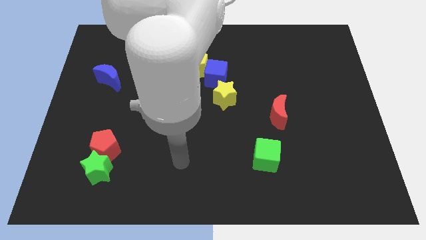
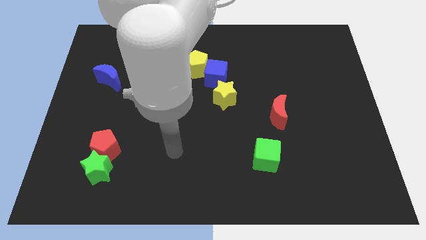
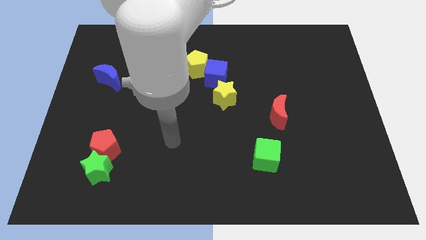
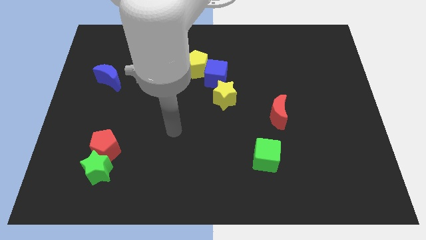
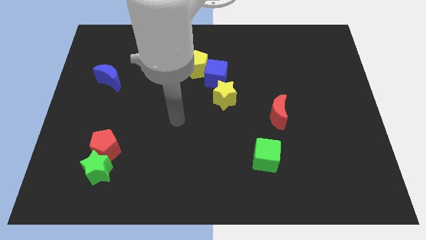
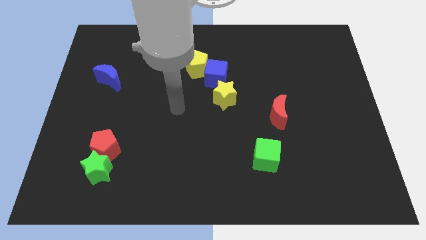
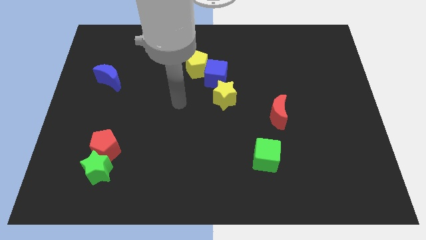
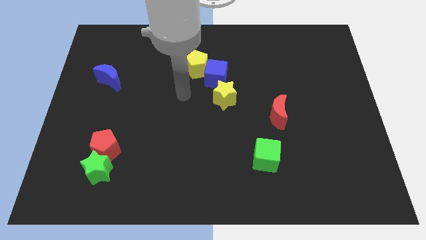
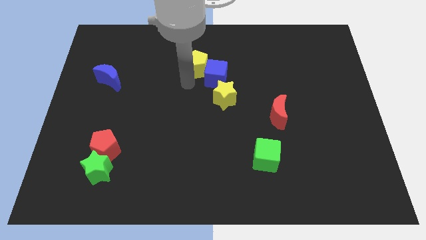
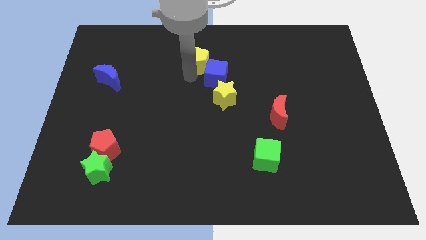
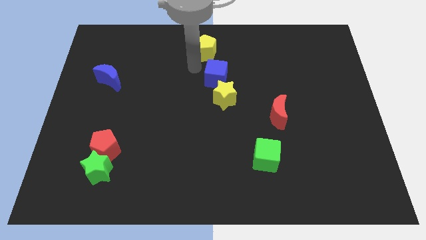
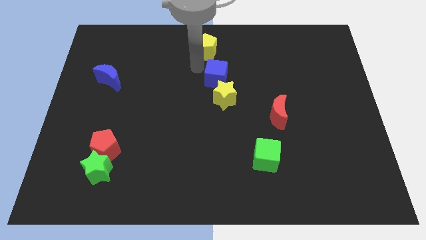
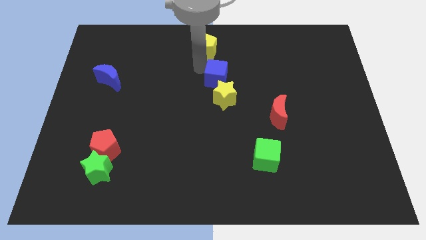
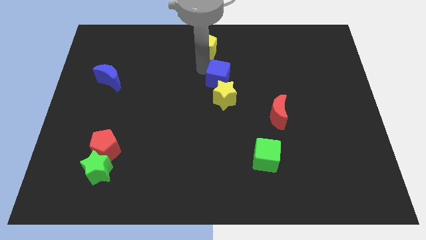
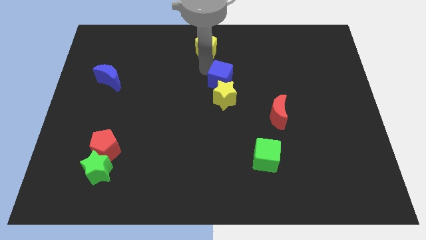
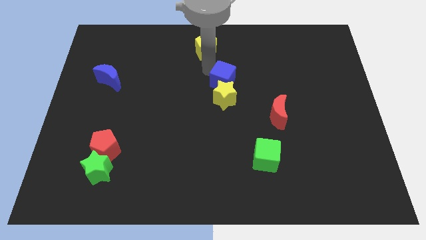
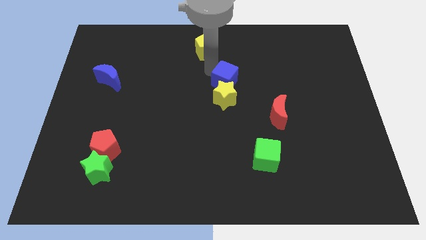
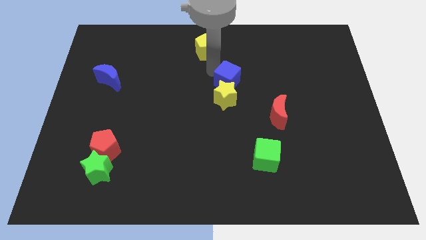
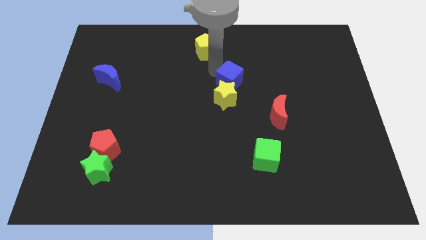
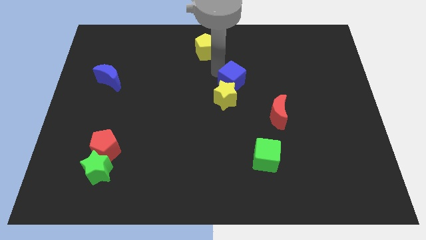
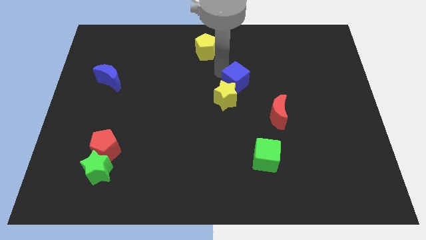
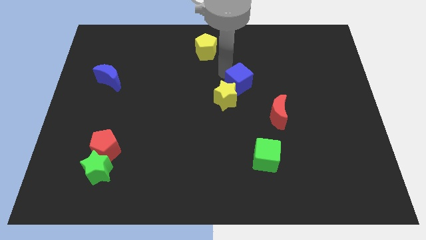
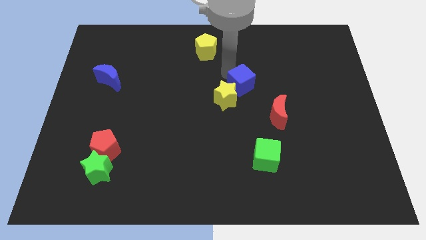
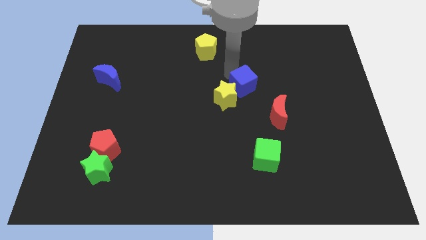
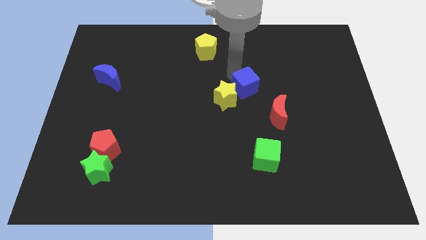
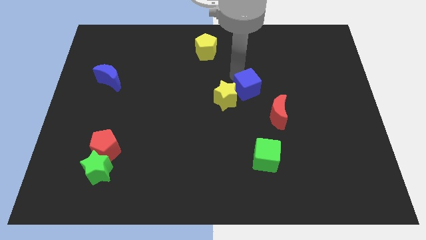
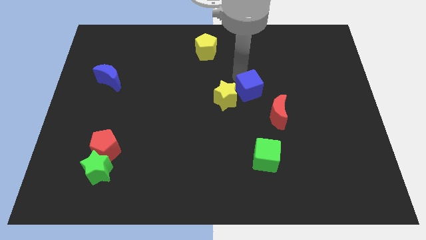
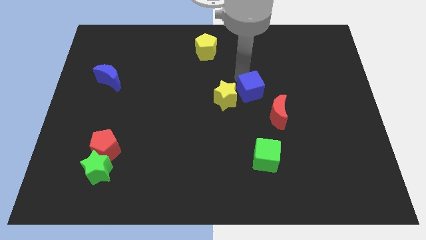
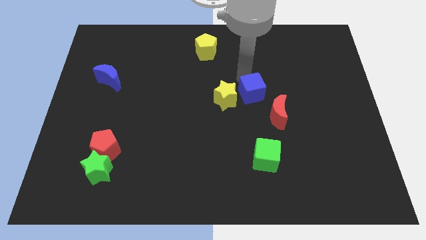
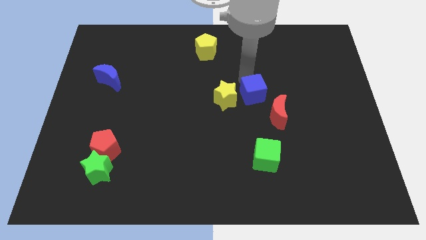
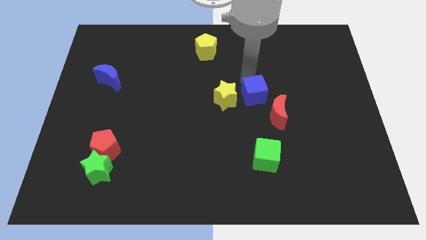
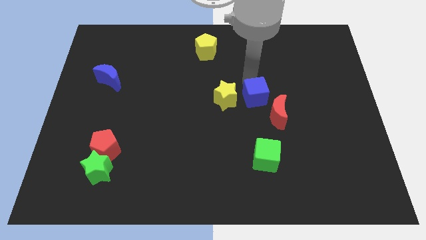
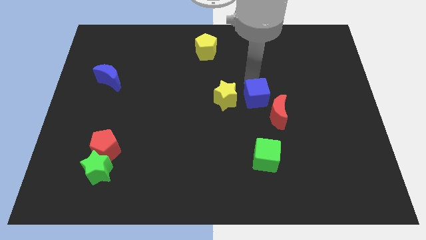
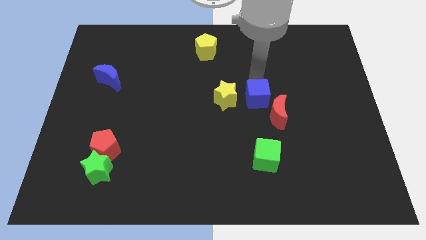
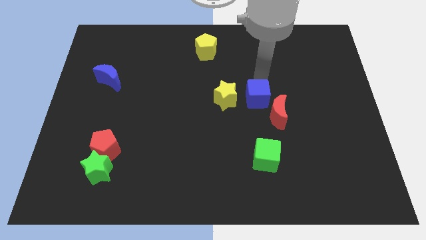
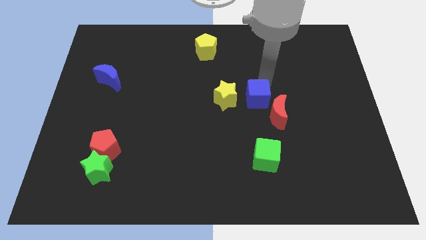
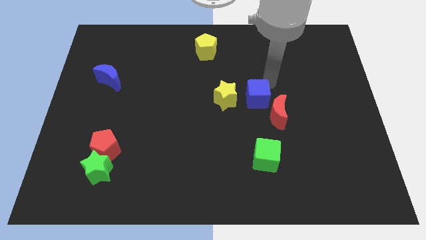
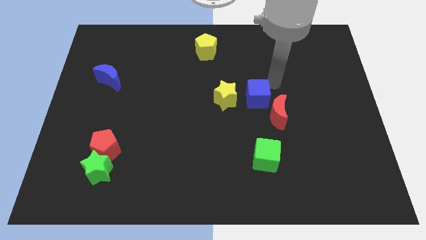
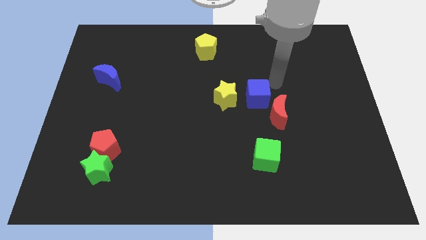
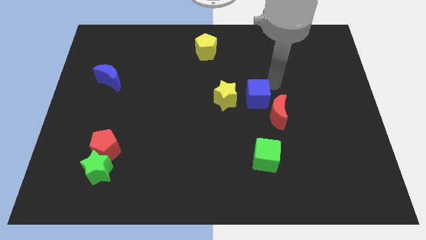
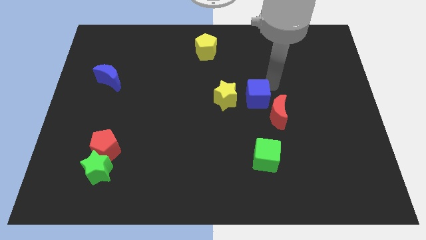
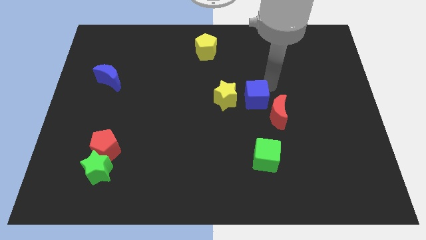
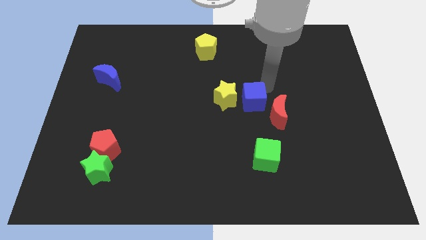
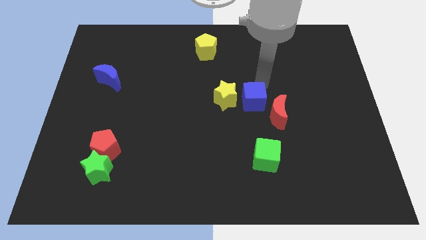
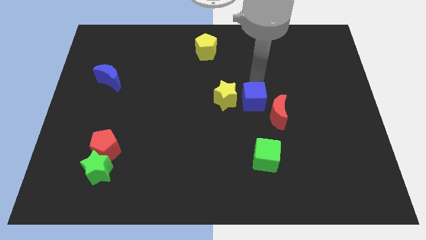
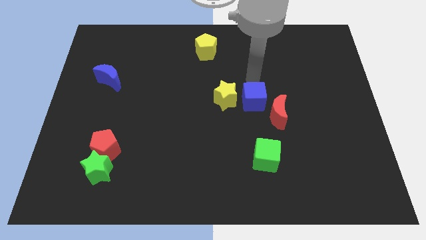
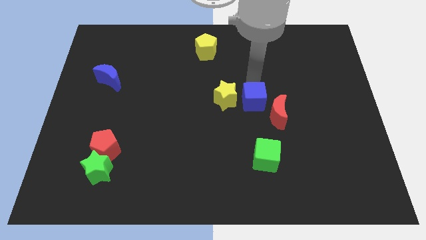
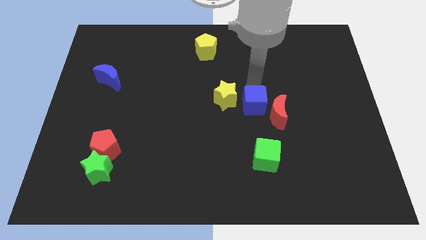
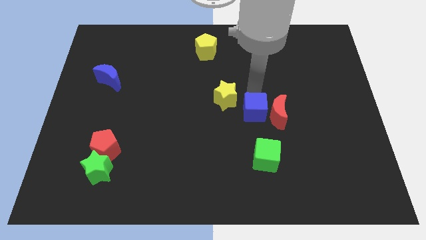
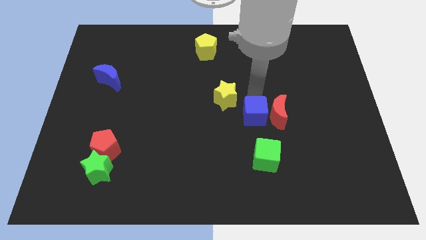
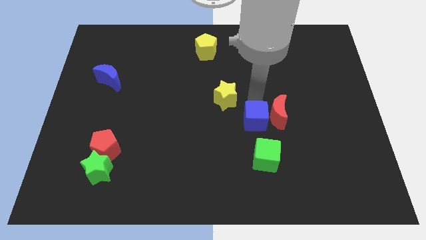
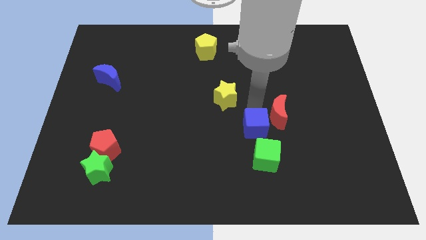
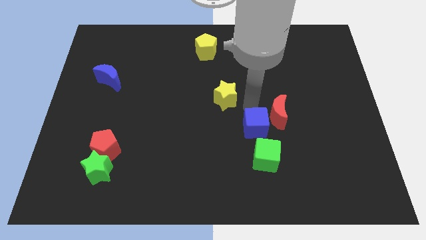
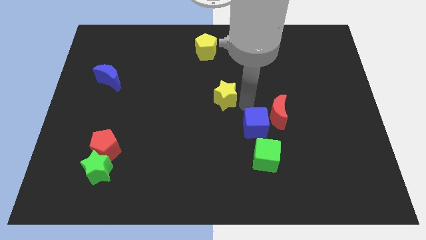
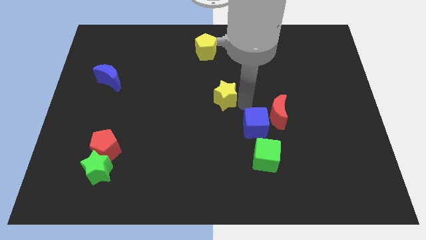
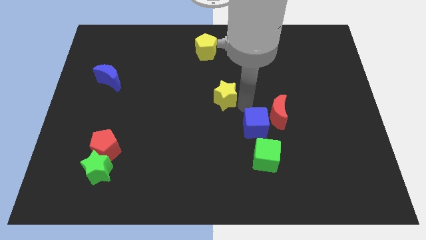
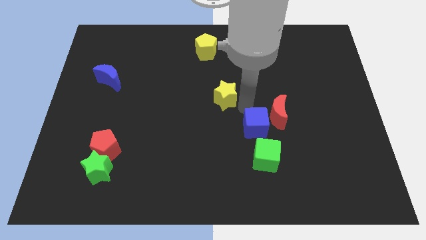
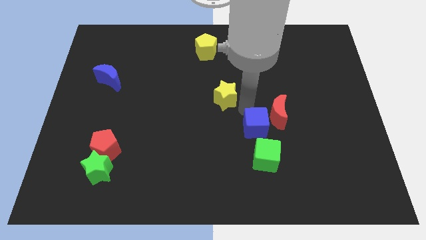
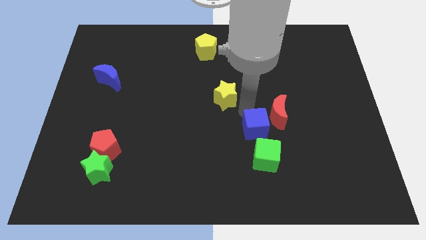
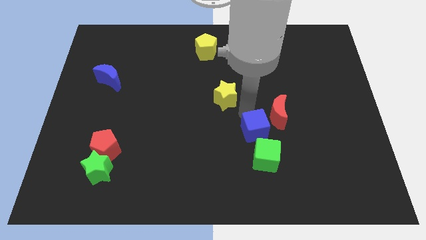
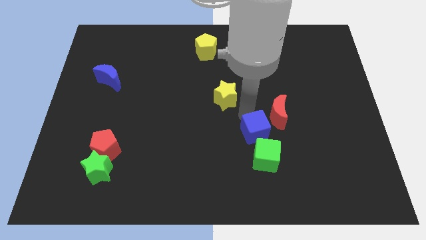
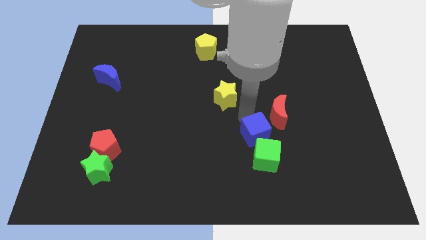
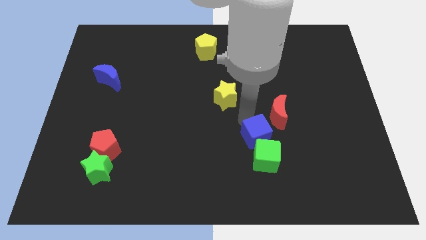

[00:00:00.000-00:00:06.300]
slide the blue cube close to the green cube

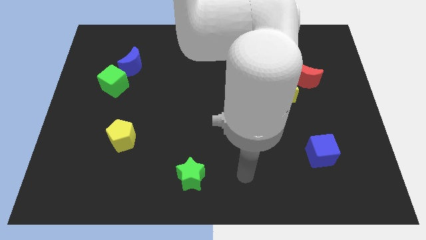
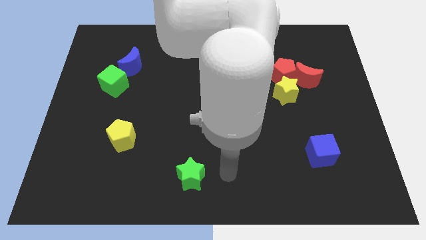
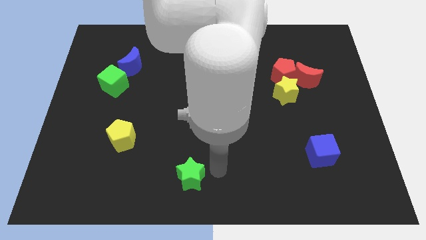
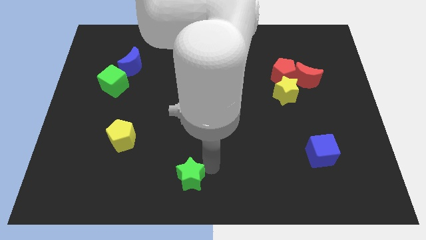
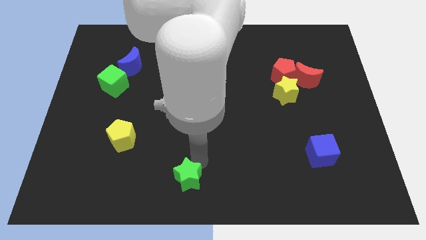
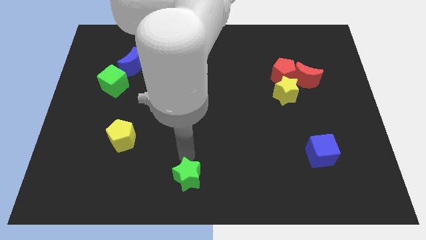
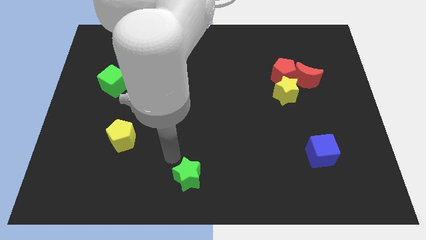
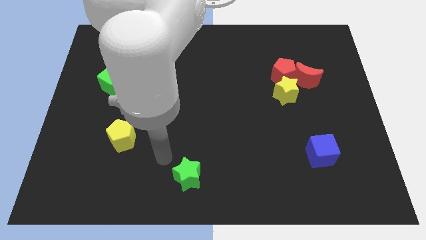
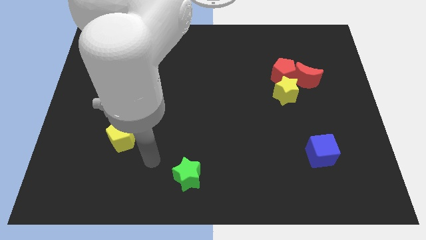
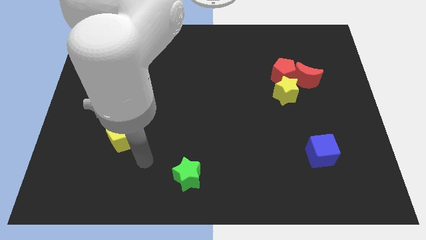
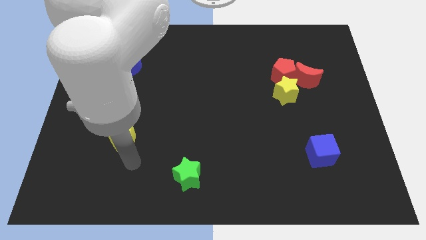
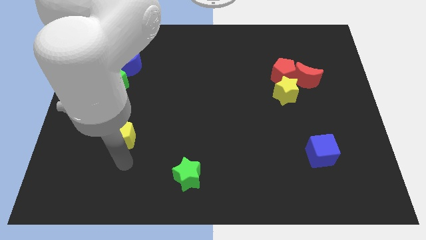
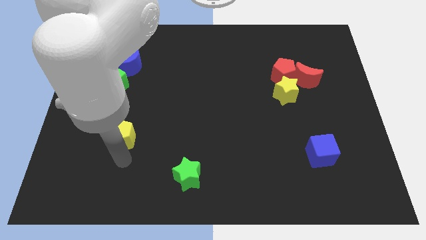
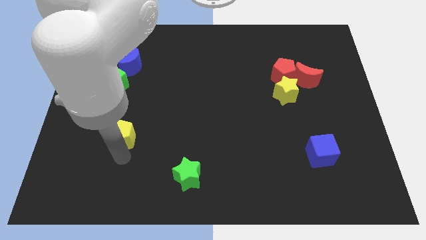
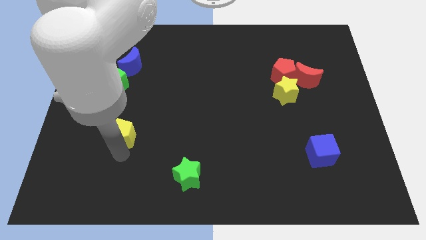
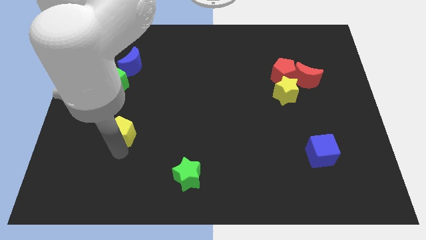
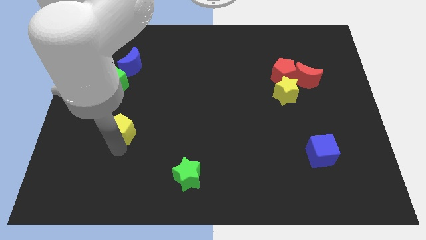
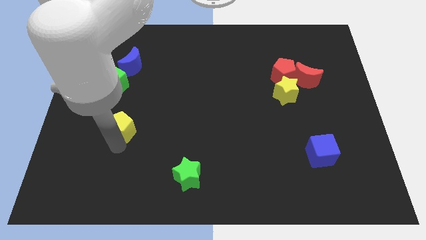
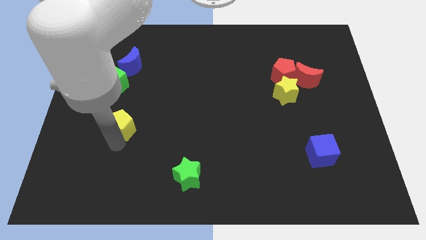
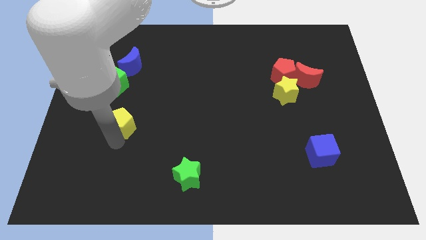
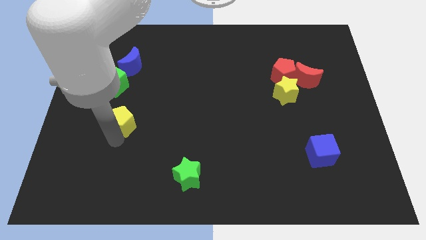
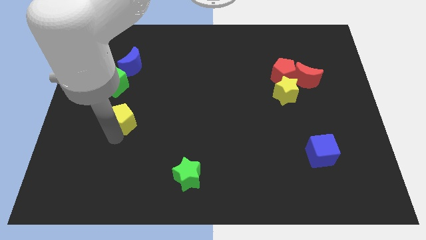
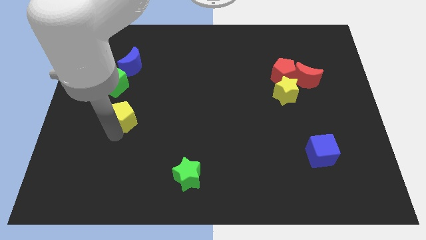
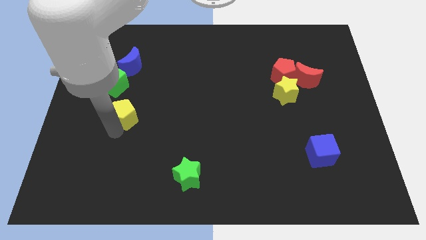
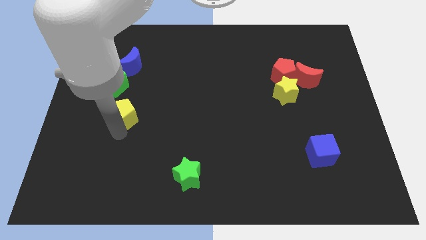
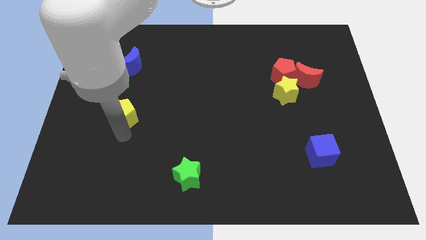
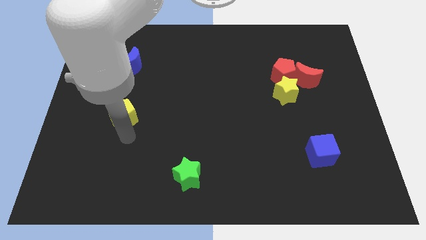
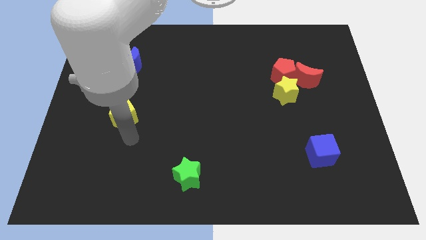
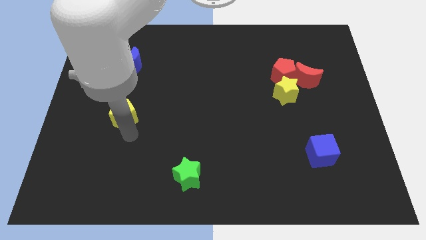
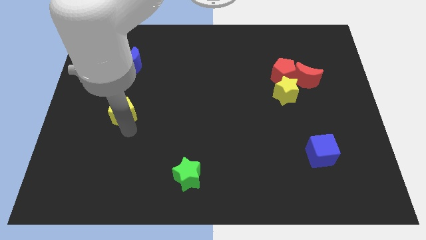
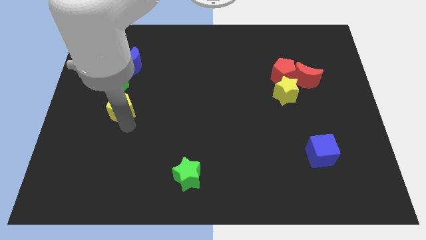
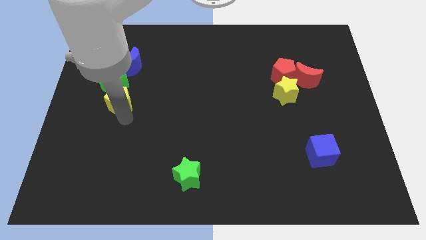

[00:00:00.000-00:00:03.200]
put the yellow pentagon close to the green cube
